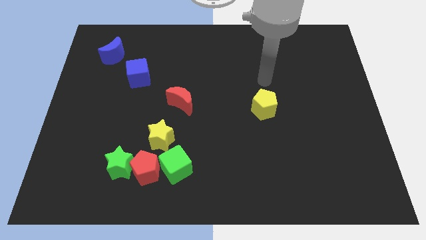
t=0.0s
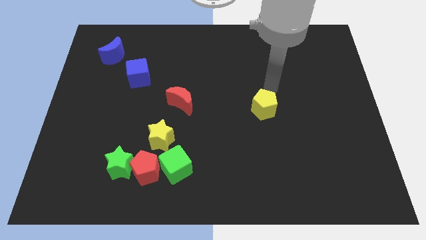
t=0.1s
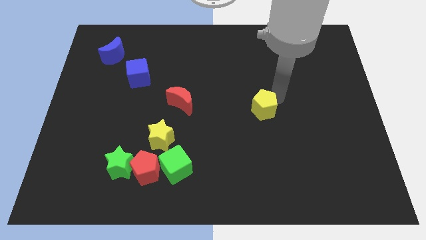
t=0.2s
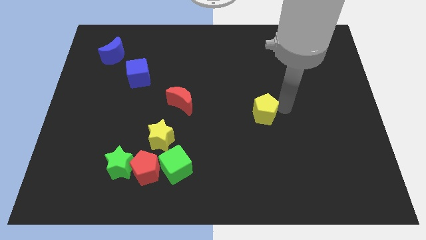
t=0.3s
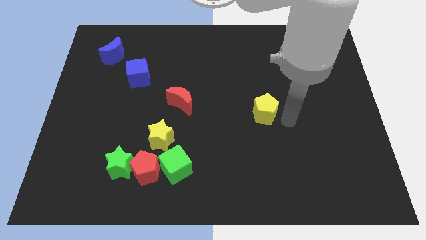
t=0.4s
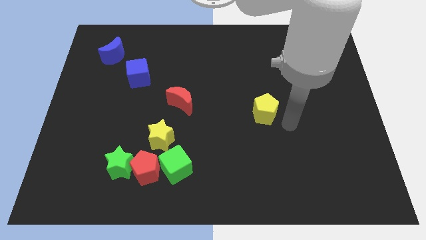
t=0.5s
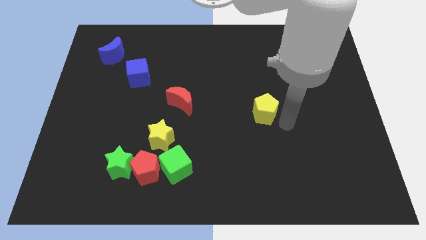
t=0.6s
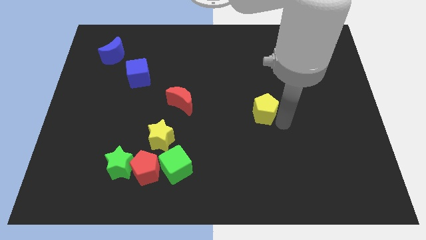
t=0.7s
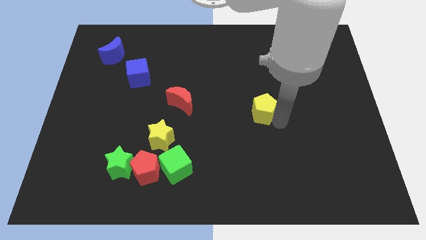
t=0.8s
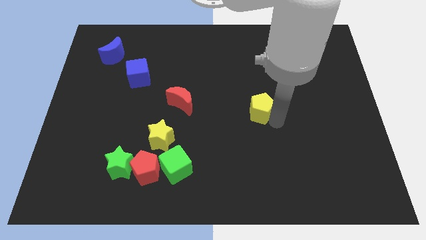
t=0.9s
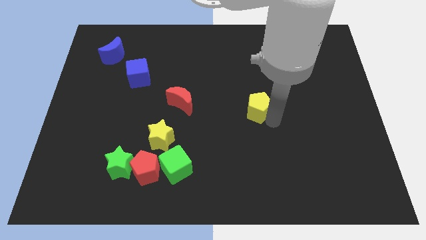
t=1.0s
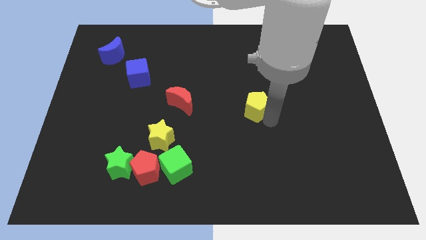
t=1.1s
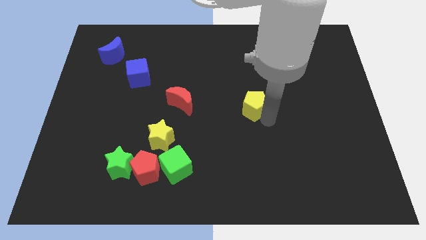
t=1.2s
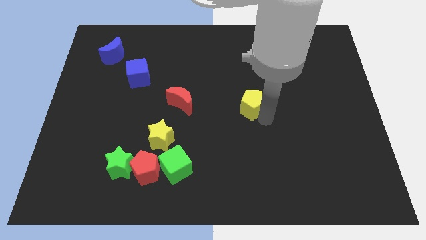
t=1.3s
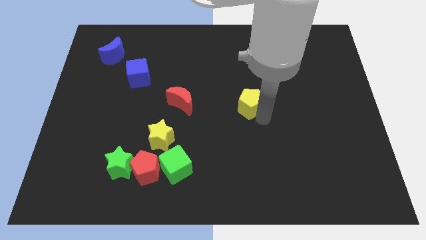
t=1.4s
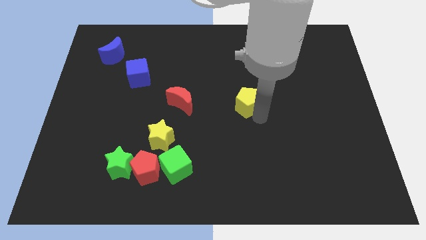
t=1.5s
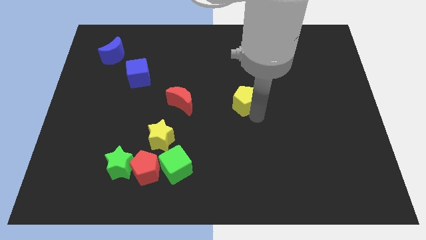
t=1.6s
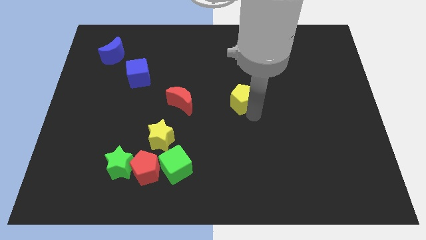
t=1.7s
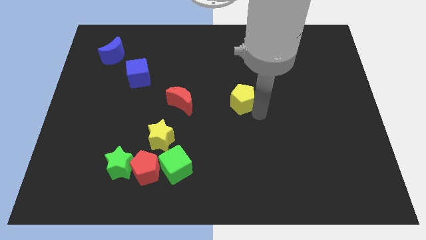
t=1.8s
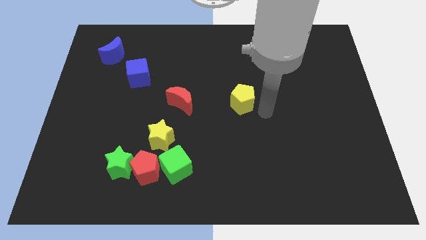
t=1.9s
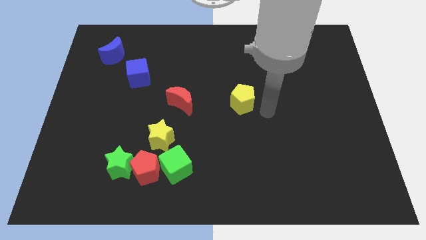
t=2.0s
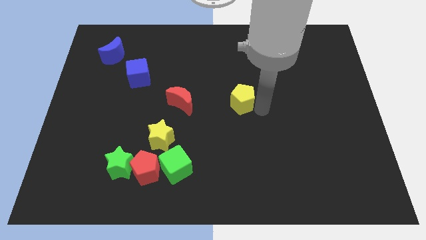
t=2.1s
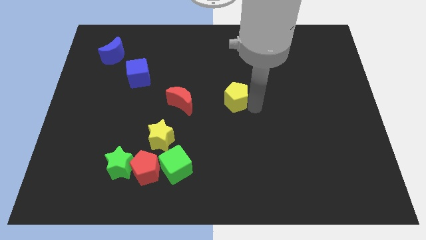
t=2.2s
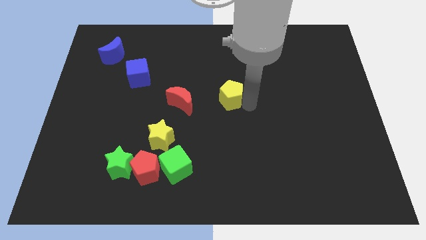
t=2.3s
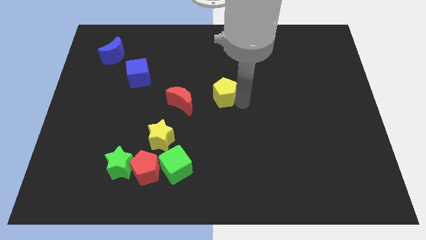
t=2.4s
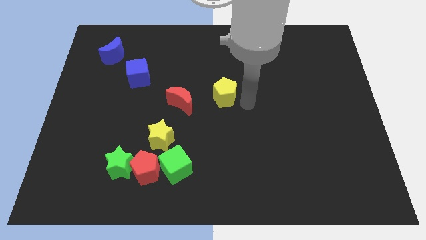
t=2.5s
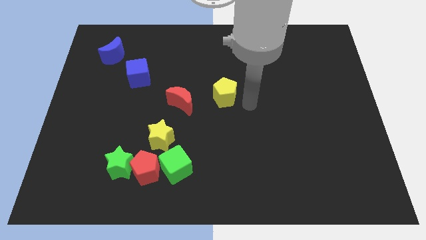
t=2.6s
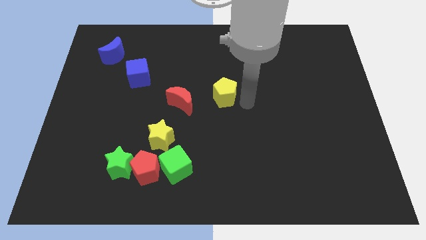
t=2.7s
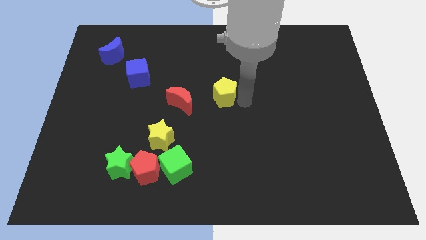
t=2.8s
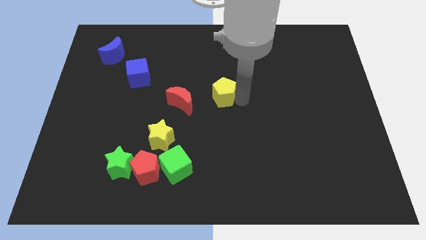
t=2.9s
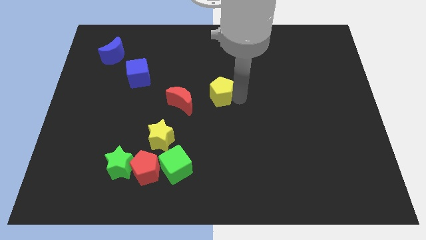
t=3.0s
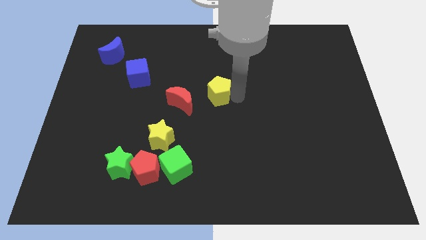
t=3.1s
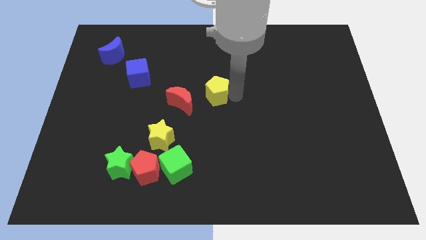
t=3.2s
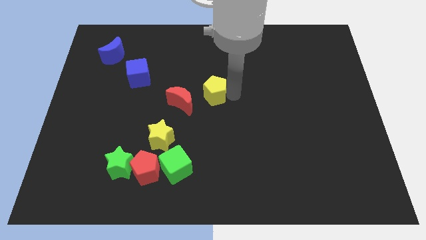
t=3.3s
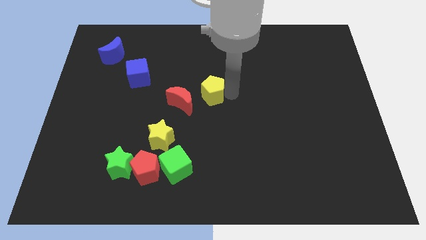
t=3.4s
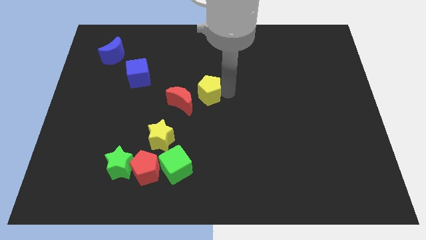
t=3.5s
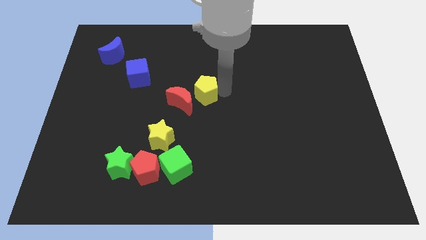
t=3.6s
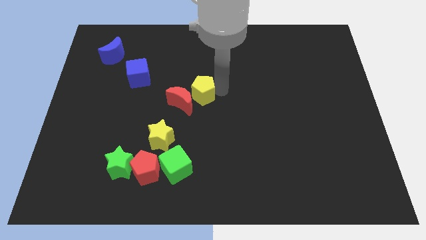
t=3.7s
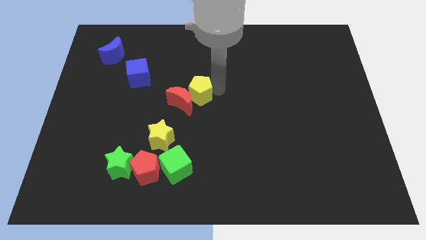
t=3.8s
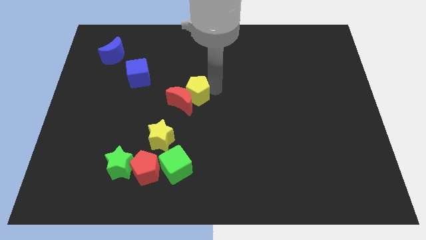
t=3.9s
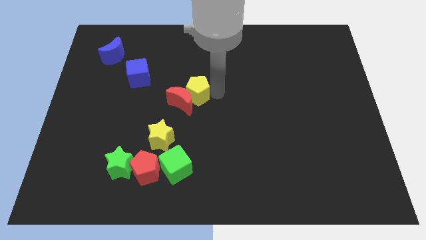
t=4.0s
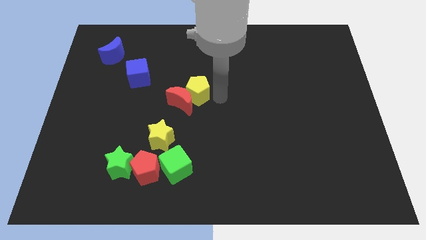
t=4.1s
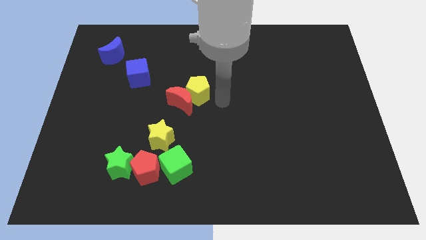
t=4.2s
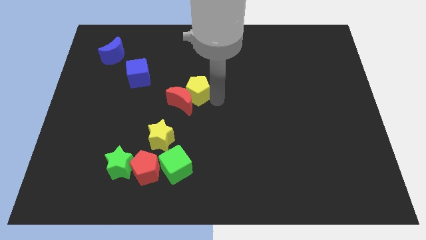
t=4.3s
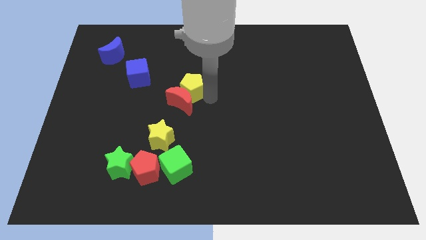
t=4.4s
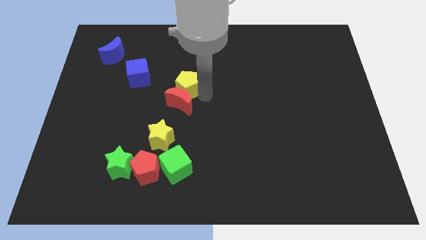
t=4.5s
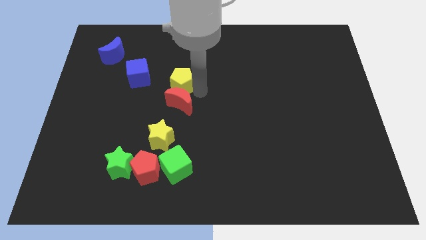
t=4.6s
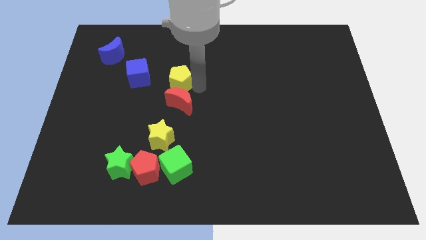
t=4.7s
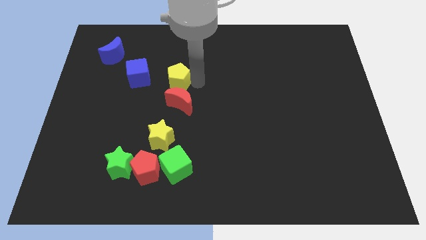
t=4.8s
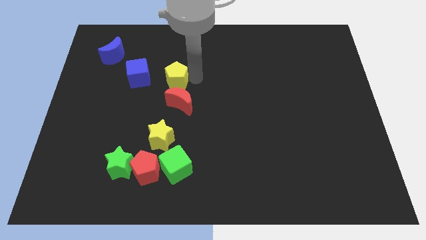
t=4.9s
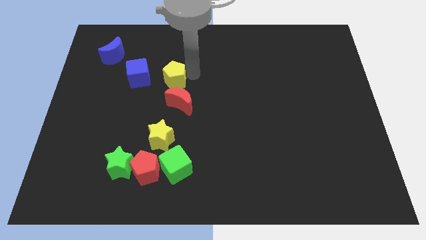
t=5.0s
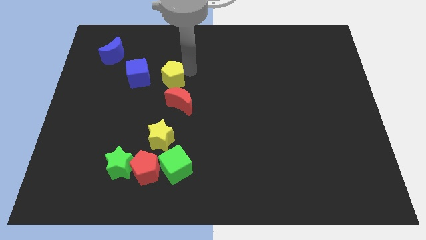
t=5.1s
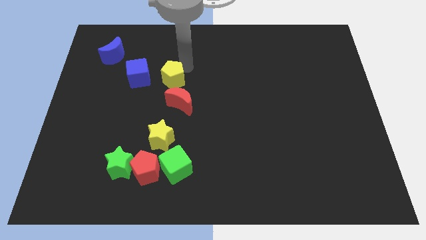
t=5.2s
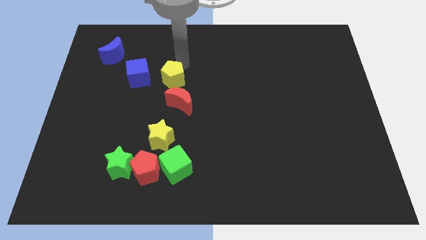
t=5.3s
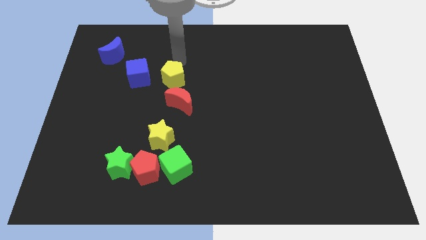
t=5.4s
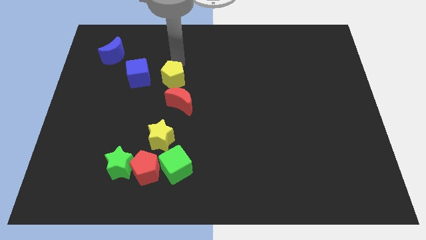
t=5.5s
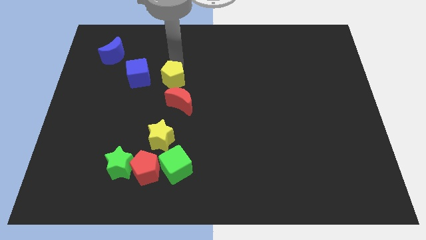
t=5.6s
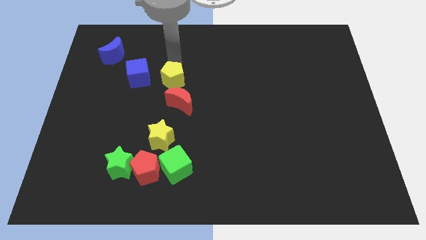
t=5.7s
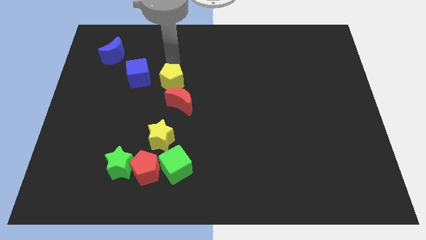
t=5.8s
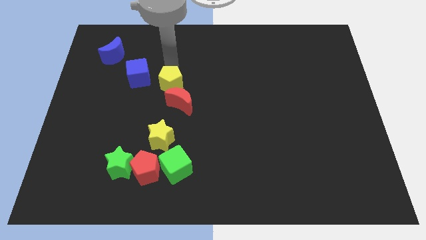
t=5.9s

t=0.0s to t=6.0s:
slide the yellow pentagon to the top of the yellow star
